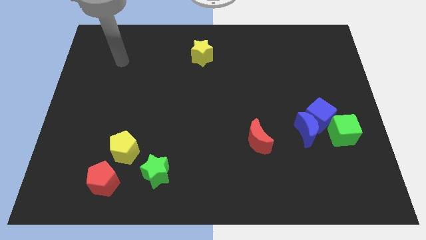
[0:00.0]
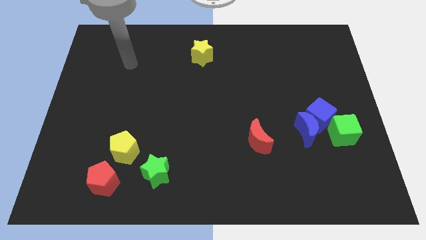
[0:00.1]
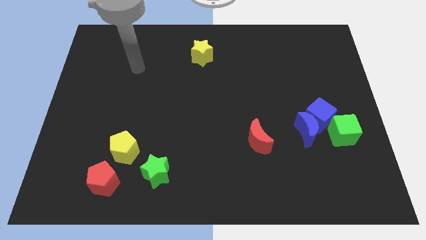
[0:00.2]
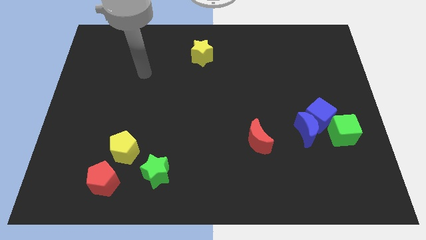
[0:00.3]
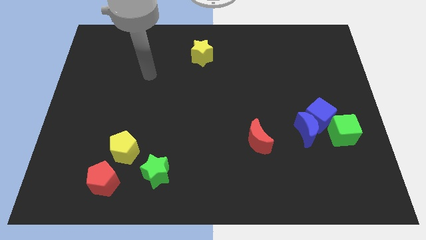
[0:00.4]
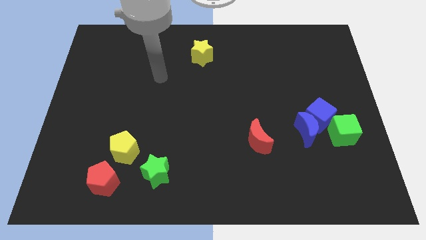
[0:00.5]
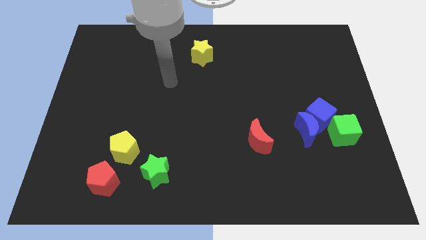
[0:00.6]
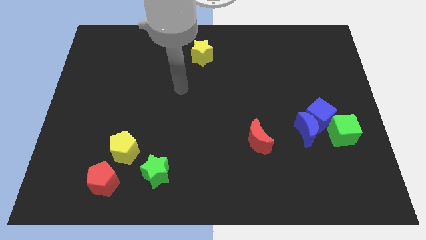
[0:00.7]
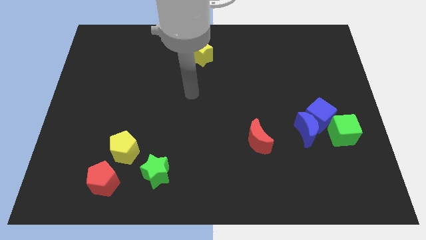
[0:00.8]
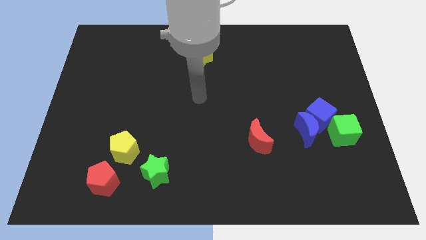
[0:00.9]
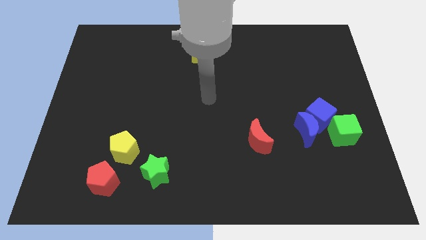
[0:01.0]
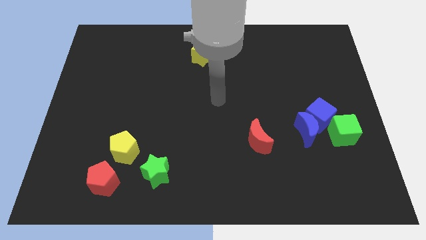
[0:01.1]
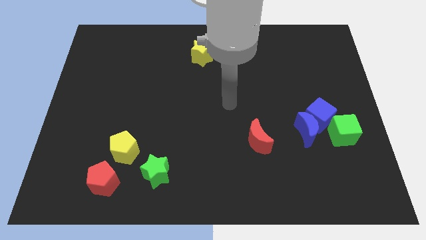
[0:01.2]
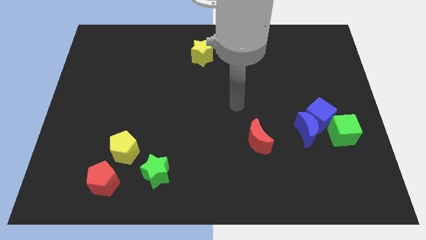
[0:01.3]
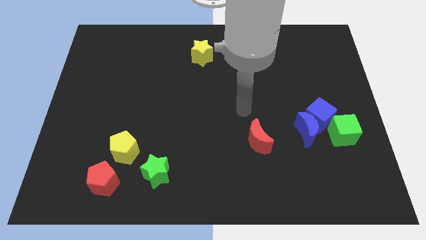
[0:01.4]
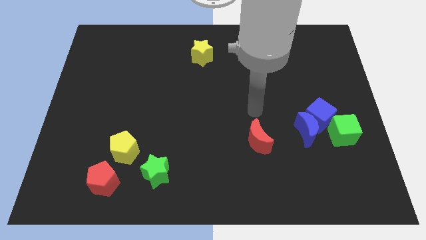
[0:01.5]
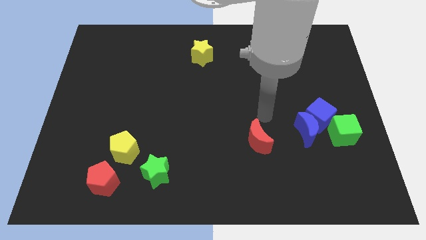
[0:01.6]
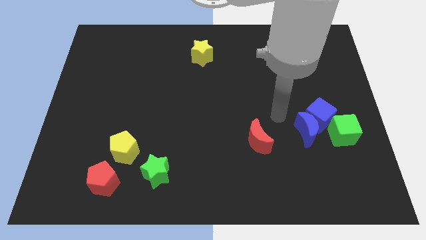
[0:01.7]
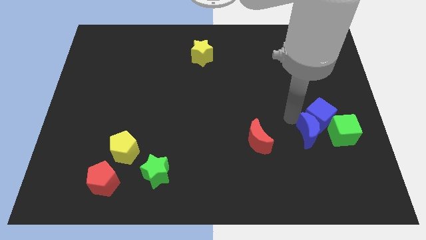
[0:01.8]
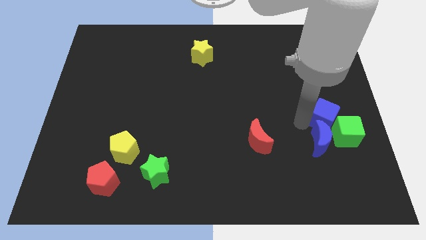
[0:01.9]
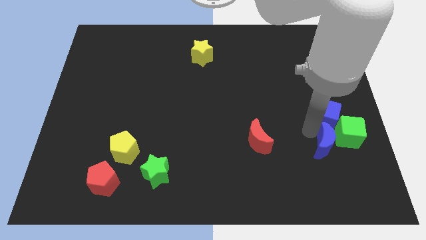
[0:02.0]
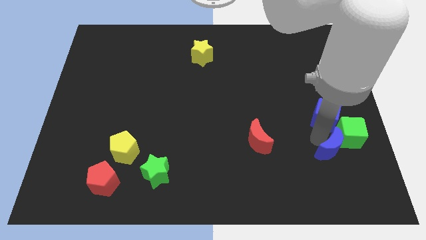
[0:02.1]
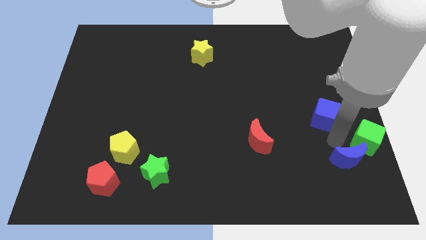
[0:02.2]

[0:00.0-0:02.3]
move the blue cube away from the blue moon and green cube

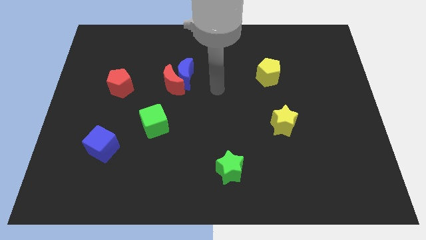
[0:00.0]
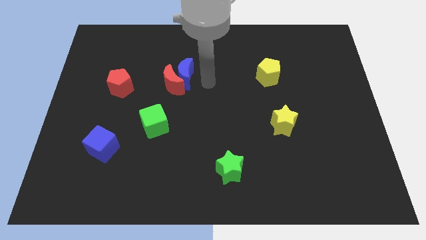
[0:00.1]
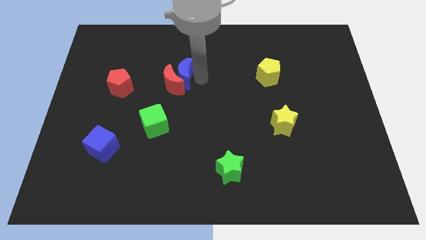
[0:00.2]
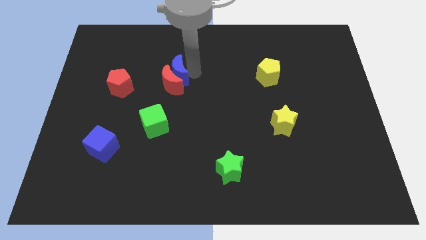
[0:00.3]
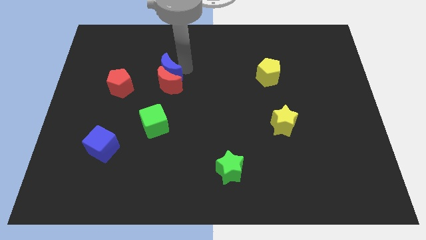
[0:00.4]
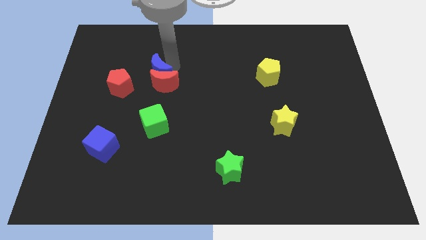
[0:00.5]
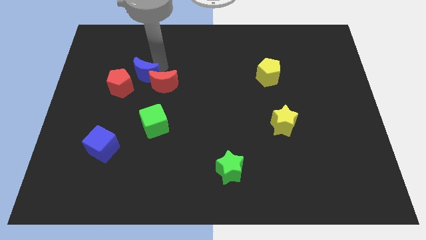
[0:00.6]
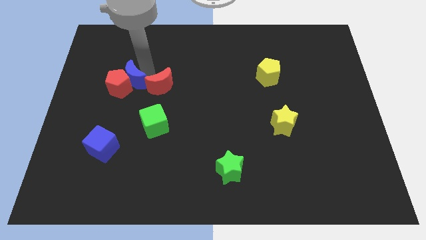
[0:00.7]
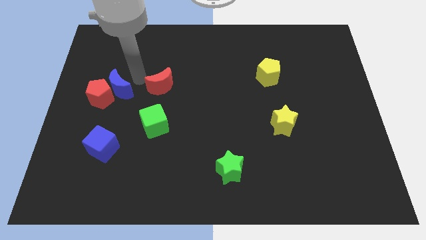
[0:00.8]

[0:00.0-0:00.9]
pull the red moon apart from the blue moon

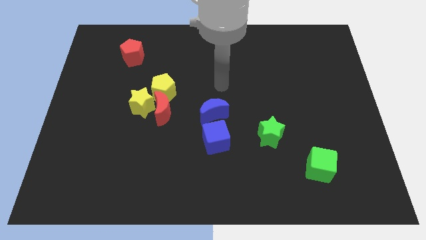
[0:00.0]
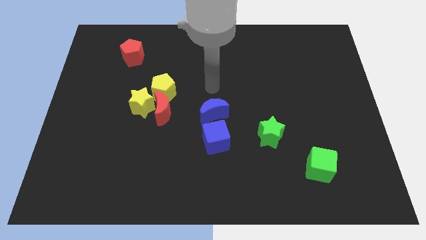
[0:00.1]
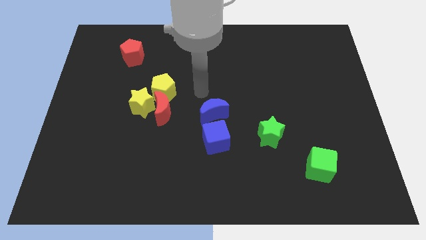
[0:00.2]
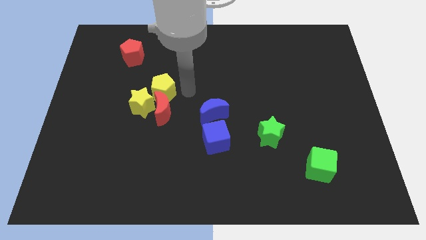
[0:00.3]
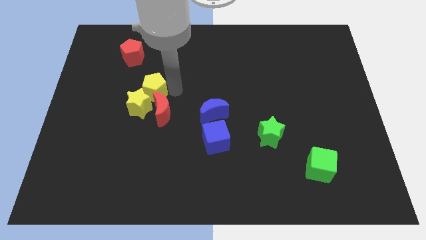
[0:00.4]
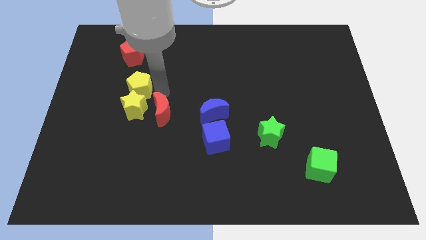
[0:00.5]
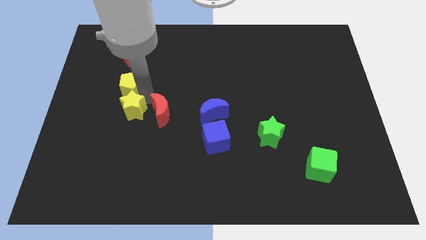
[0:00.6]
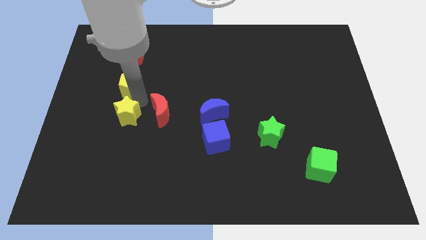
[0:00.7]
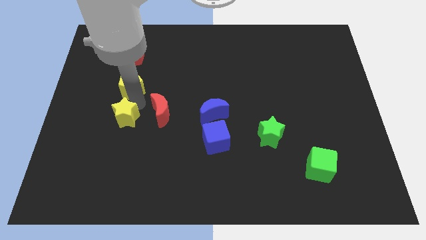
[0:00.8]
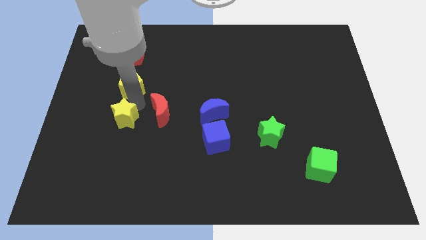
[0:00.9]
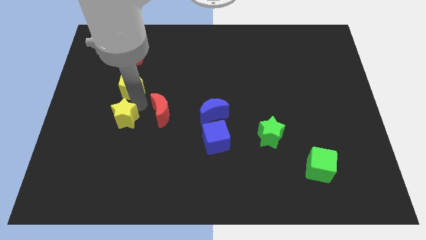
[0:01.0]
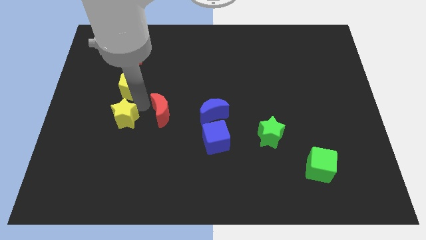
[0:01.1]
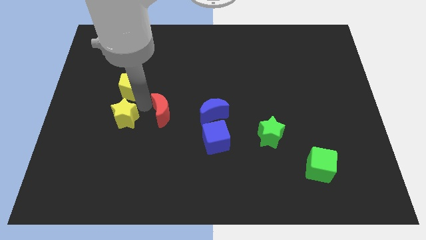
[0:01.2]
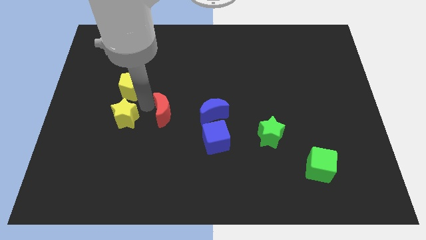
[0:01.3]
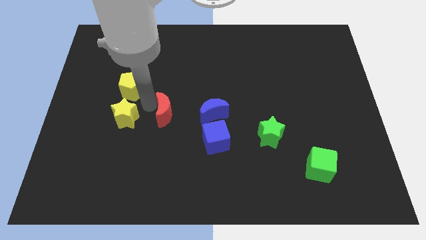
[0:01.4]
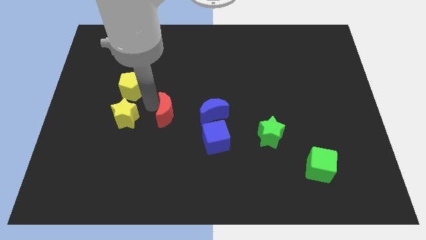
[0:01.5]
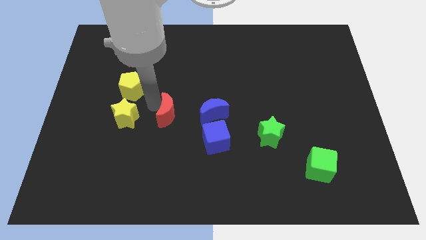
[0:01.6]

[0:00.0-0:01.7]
move the red moon away from the yellow star and yellow pentagon

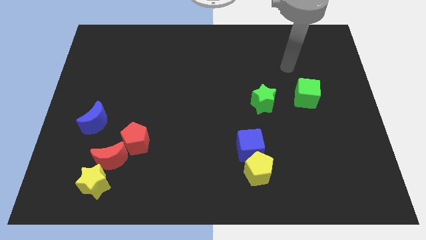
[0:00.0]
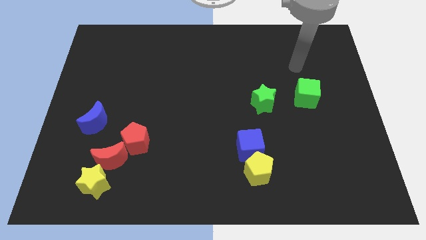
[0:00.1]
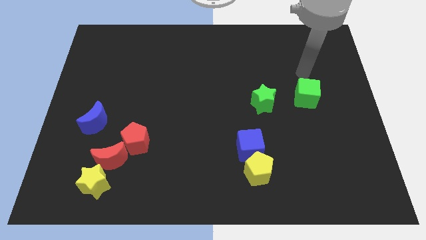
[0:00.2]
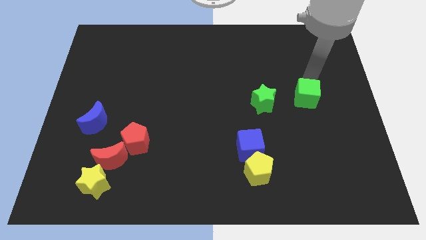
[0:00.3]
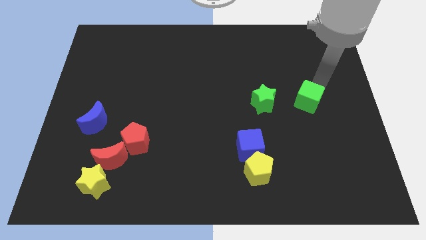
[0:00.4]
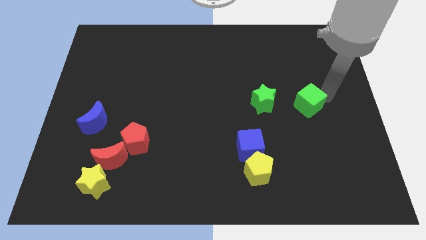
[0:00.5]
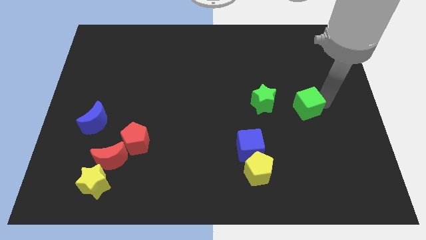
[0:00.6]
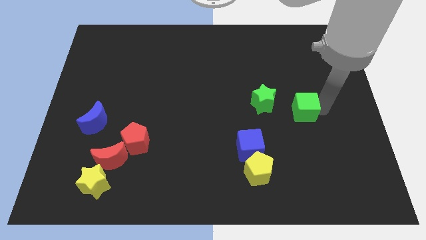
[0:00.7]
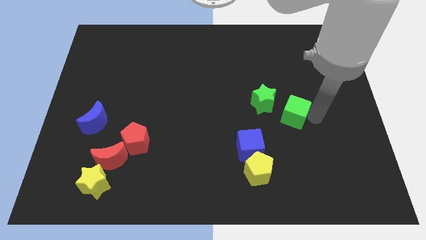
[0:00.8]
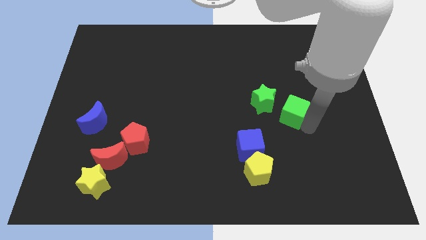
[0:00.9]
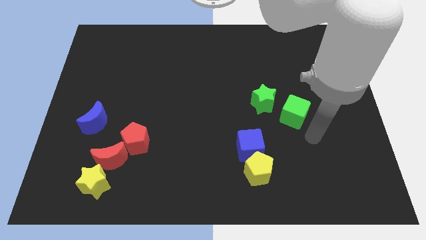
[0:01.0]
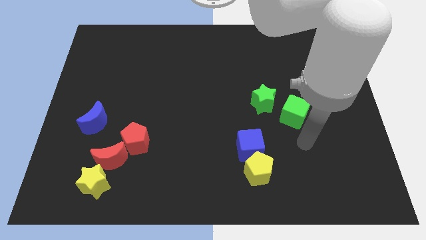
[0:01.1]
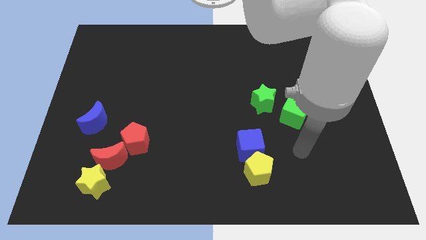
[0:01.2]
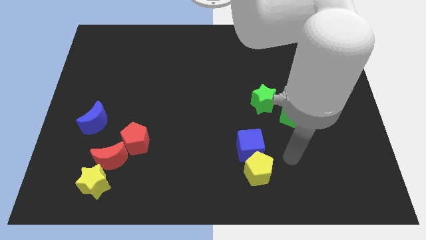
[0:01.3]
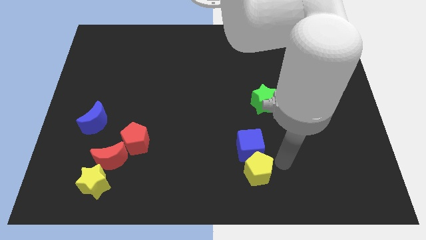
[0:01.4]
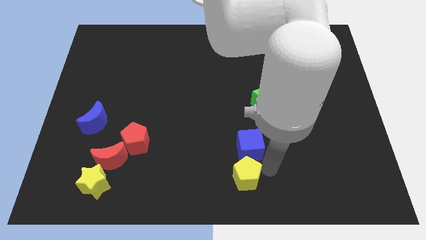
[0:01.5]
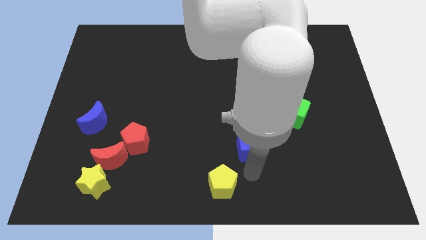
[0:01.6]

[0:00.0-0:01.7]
move the blue cube away from the yellow pentagon

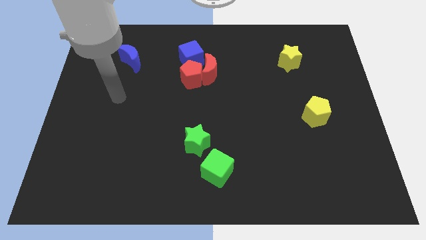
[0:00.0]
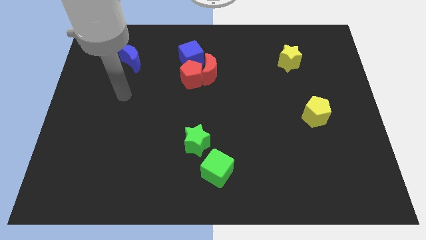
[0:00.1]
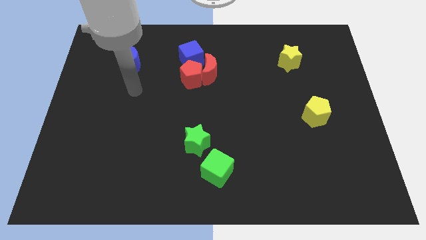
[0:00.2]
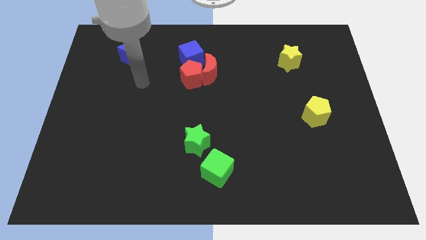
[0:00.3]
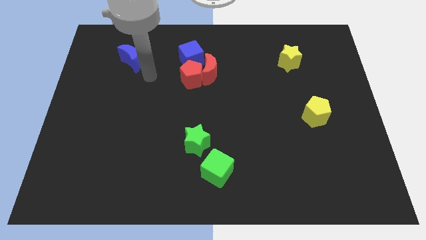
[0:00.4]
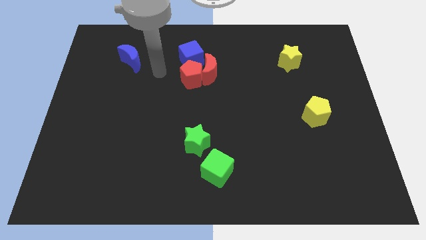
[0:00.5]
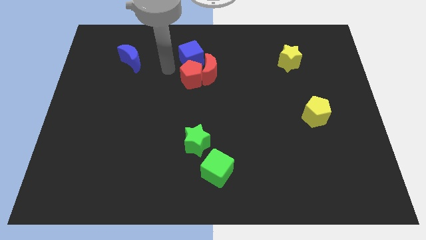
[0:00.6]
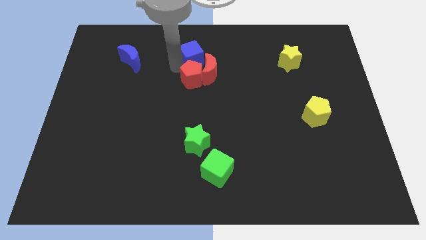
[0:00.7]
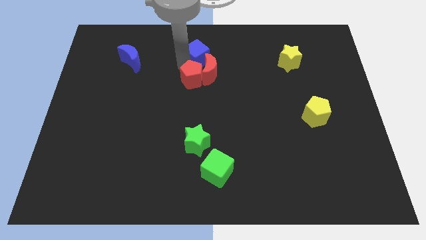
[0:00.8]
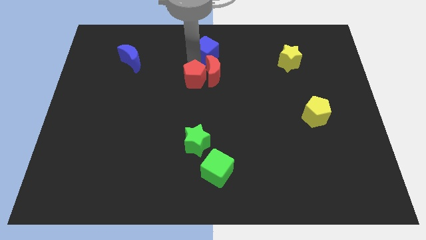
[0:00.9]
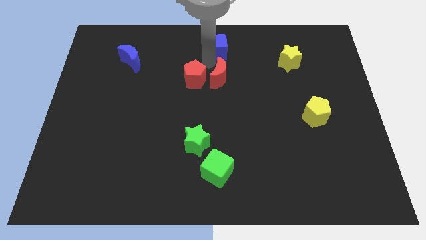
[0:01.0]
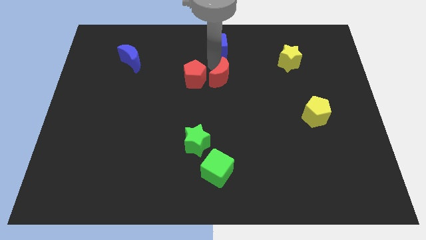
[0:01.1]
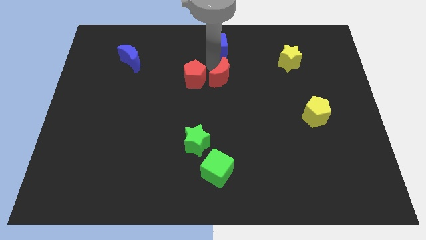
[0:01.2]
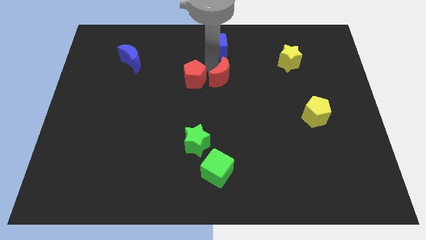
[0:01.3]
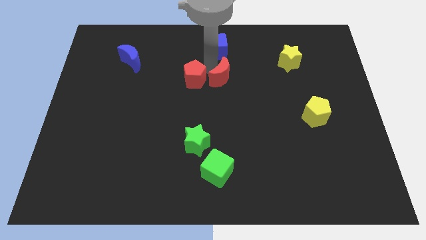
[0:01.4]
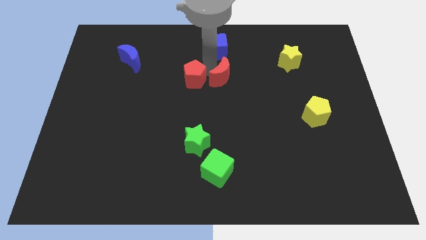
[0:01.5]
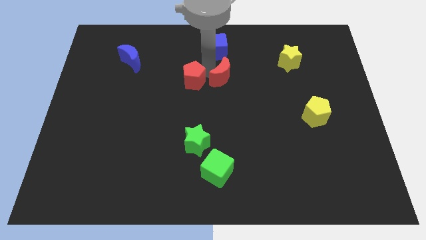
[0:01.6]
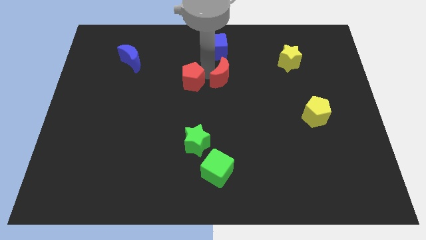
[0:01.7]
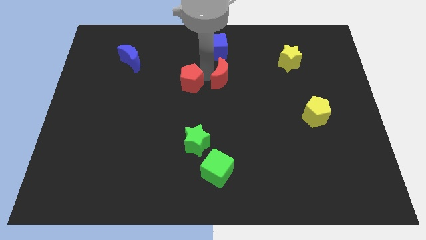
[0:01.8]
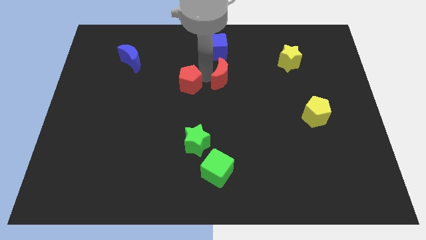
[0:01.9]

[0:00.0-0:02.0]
move the red pentagon away from the red moon and blue cube

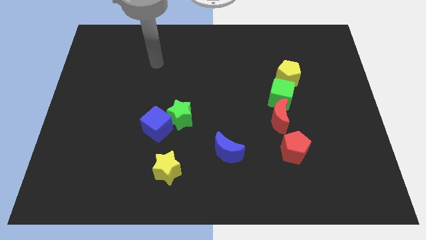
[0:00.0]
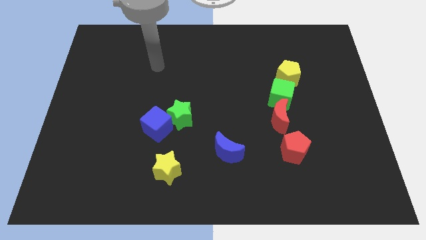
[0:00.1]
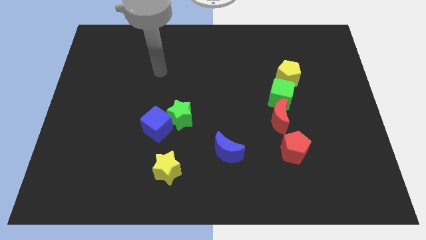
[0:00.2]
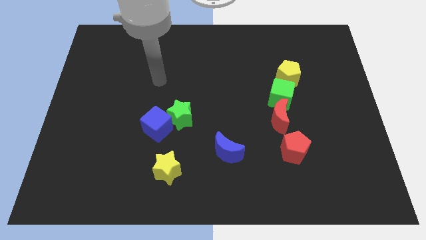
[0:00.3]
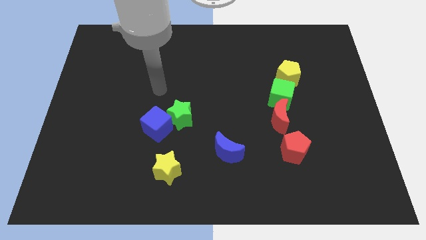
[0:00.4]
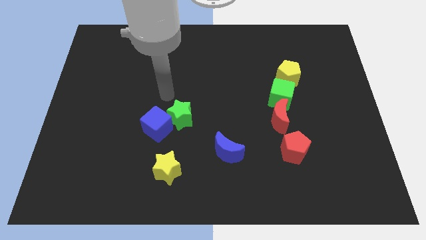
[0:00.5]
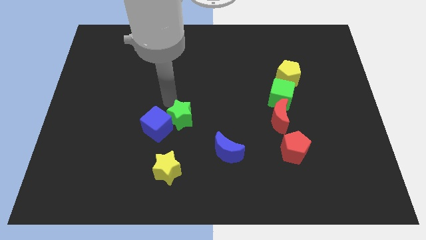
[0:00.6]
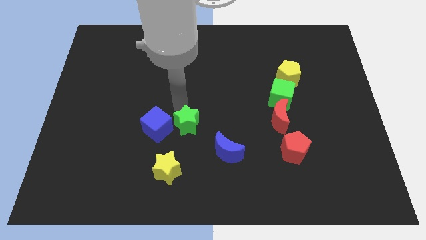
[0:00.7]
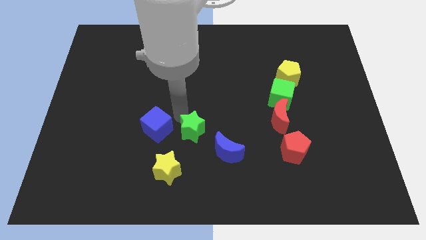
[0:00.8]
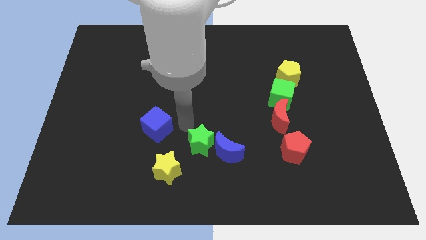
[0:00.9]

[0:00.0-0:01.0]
pull the blue cube apart from the green star
